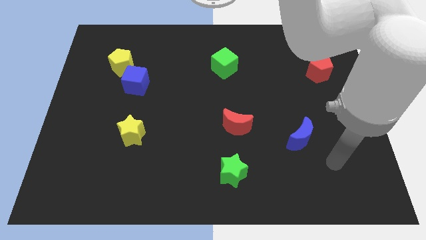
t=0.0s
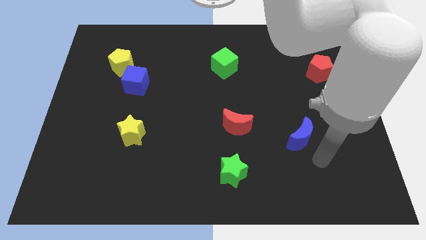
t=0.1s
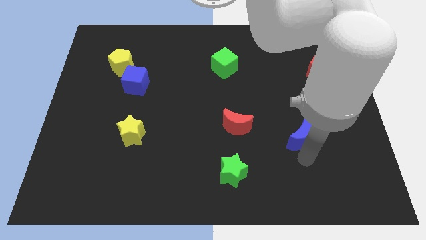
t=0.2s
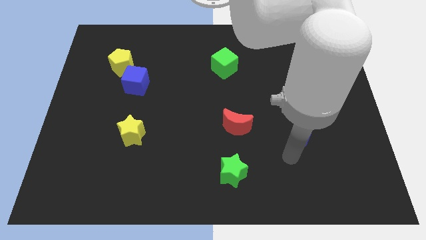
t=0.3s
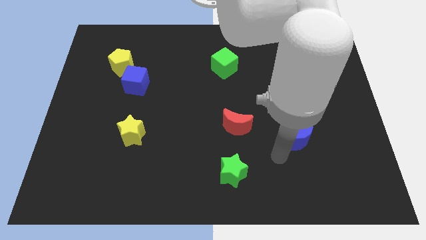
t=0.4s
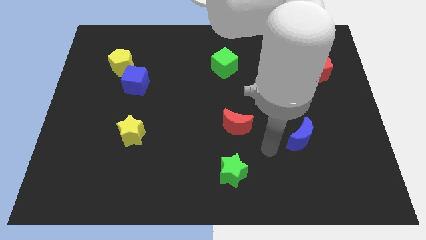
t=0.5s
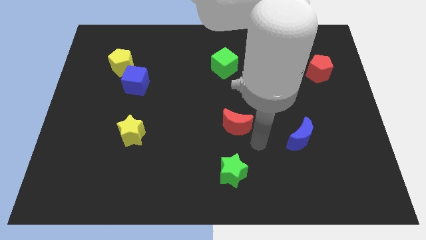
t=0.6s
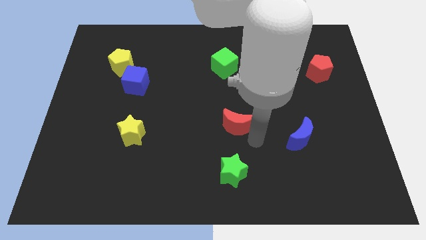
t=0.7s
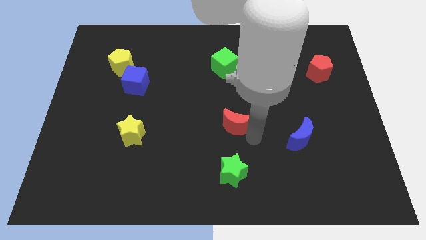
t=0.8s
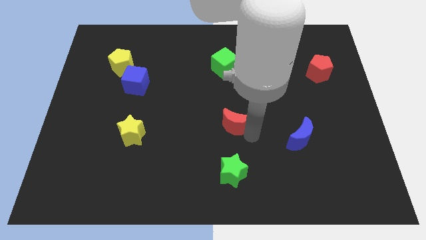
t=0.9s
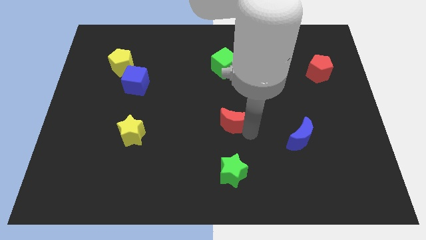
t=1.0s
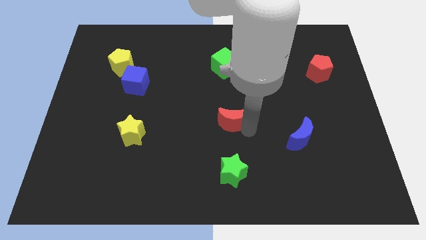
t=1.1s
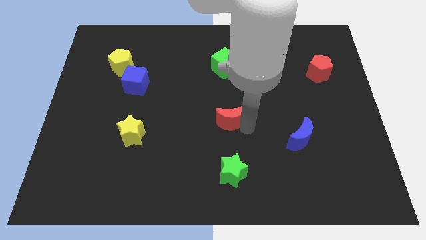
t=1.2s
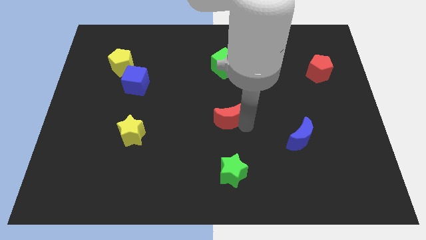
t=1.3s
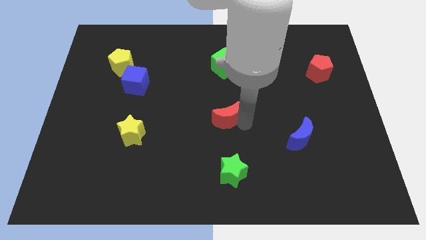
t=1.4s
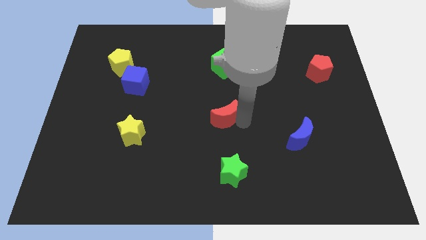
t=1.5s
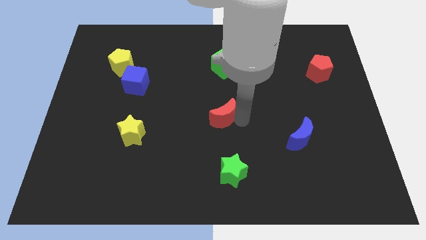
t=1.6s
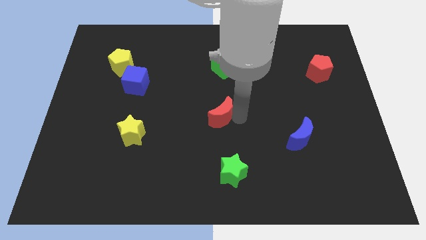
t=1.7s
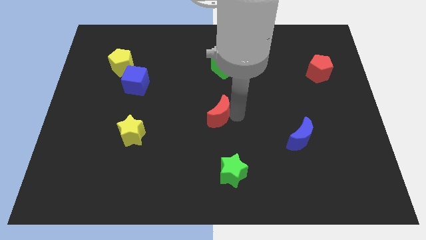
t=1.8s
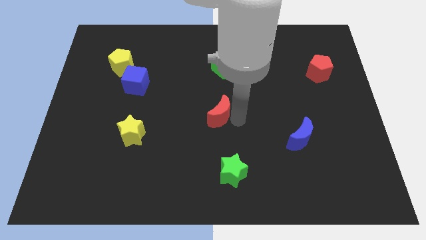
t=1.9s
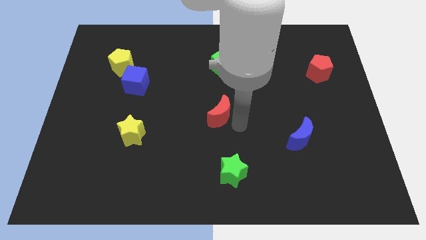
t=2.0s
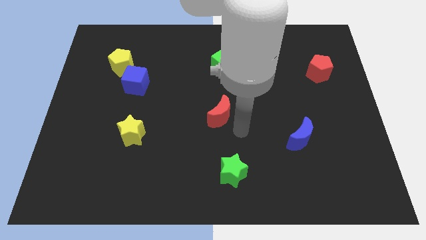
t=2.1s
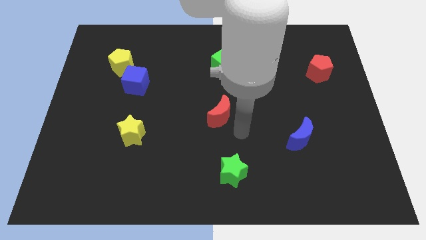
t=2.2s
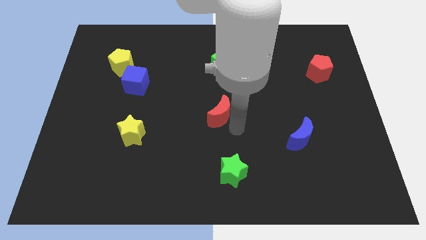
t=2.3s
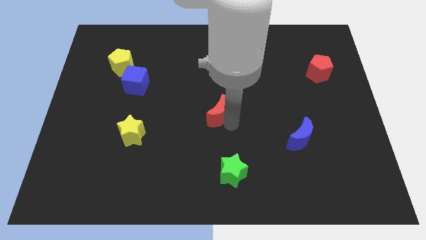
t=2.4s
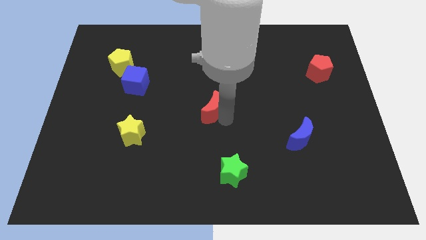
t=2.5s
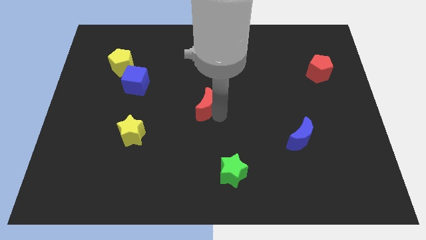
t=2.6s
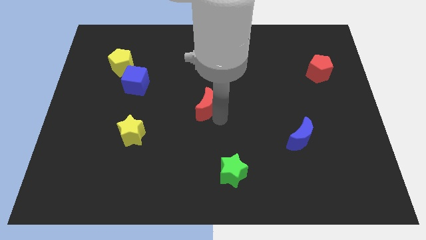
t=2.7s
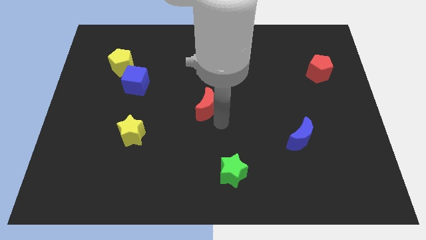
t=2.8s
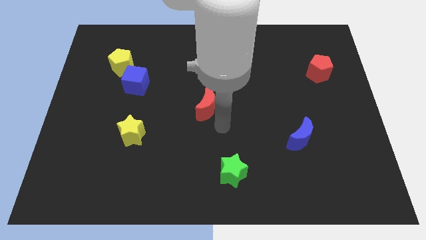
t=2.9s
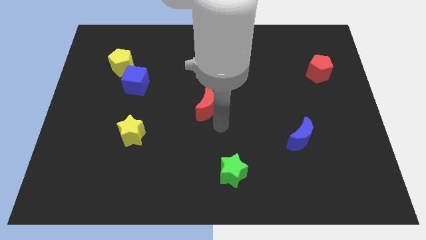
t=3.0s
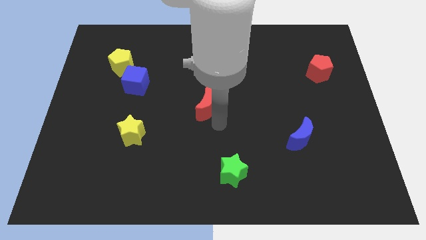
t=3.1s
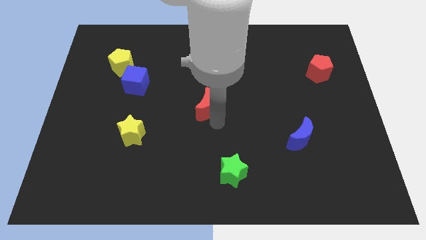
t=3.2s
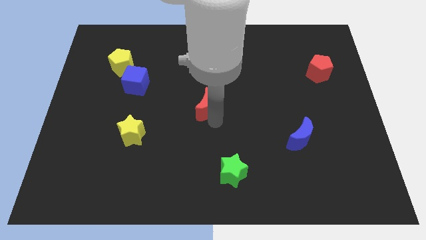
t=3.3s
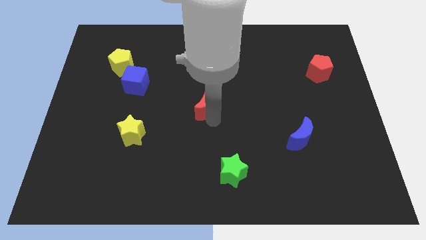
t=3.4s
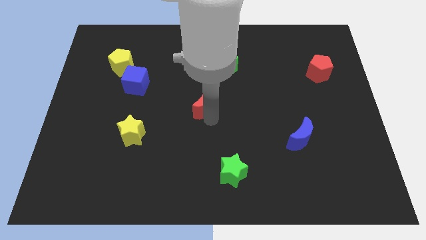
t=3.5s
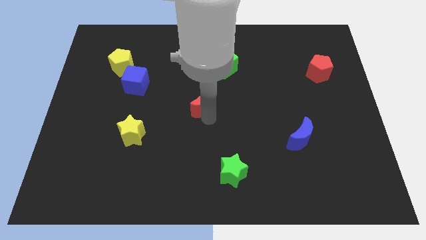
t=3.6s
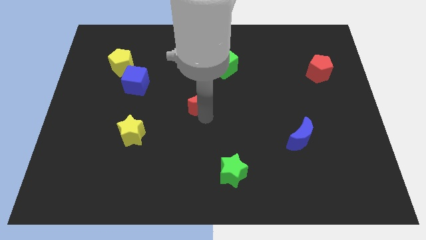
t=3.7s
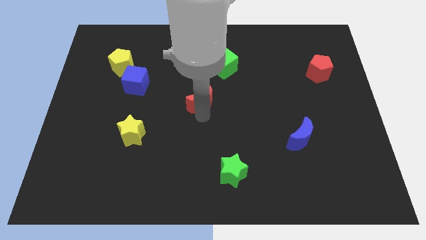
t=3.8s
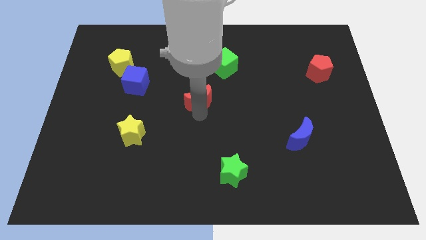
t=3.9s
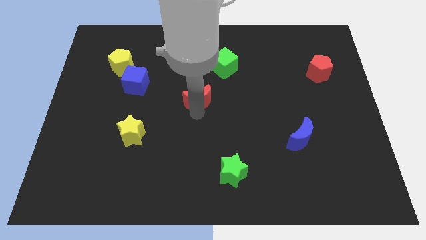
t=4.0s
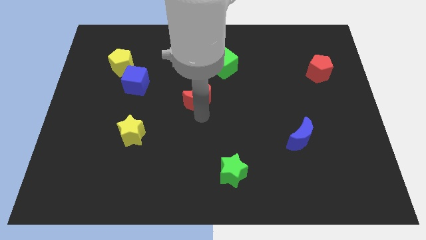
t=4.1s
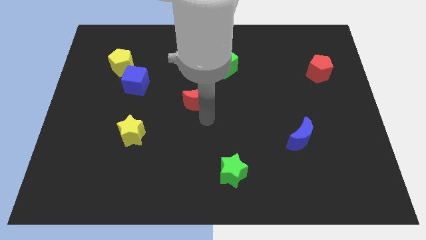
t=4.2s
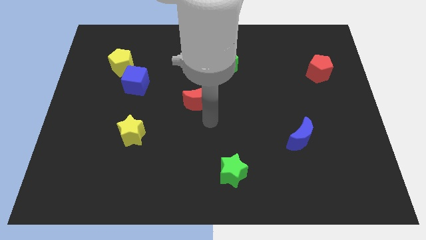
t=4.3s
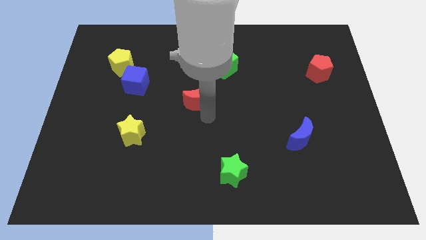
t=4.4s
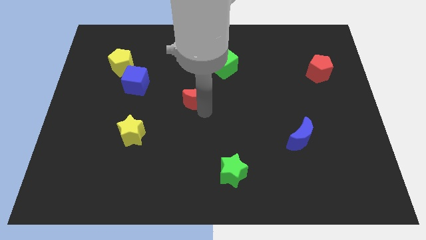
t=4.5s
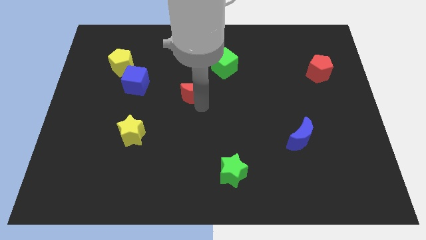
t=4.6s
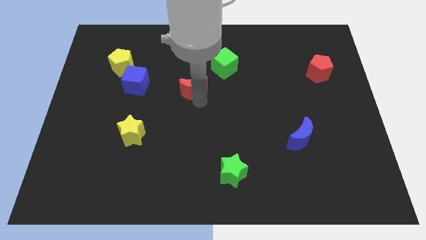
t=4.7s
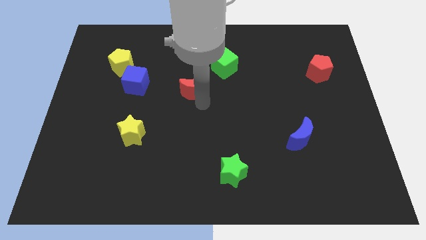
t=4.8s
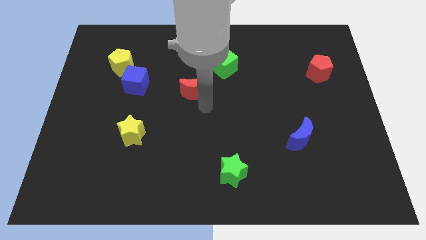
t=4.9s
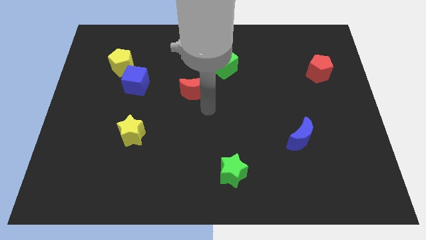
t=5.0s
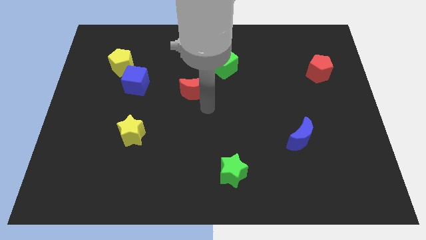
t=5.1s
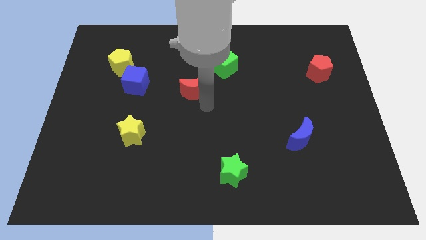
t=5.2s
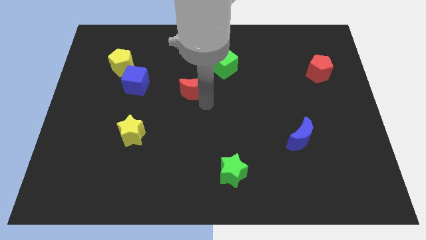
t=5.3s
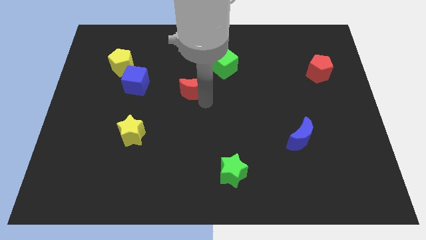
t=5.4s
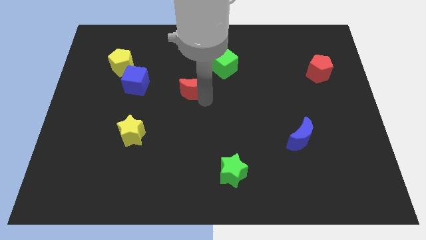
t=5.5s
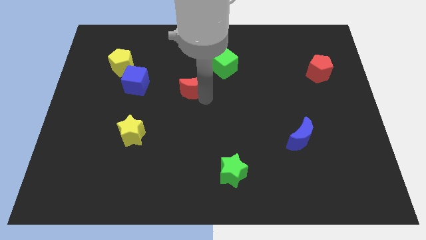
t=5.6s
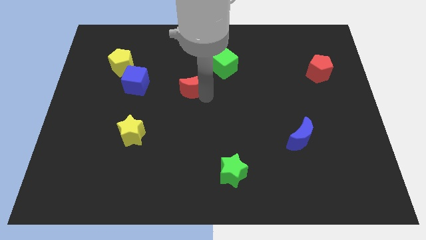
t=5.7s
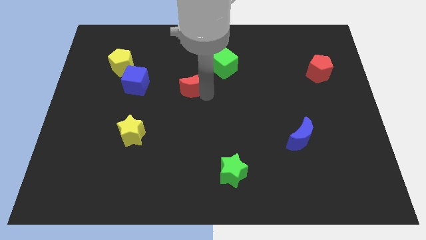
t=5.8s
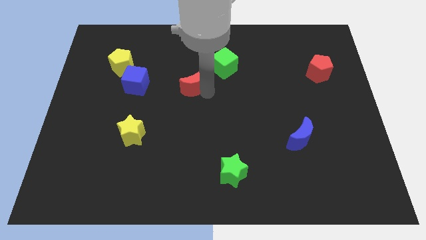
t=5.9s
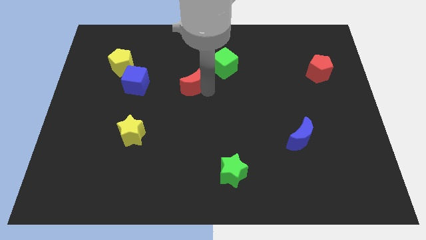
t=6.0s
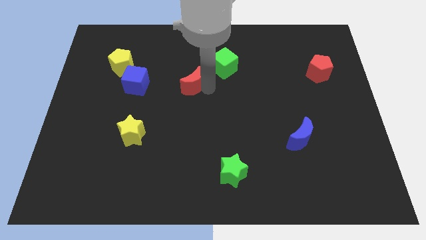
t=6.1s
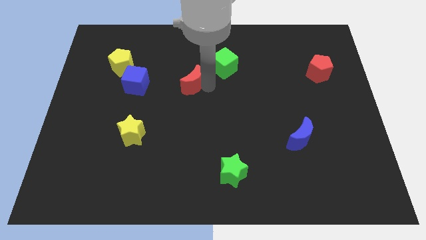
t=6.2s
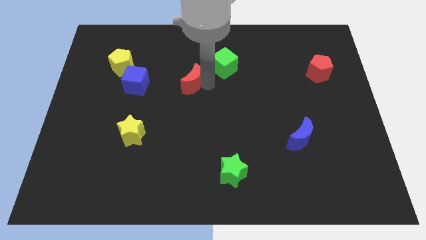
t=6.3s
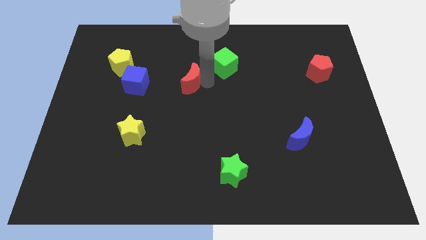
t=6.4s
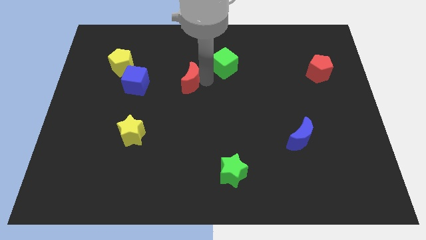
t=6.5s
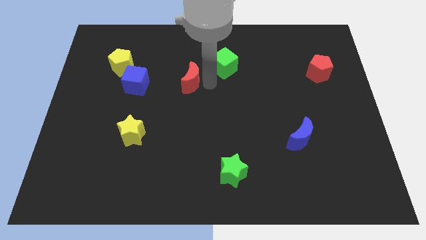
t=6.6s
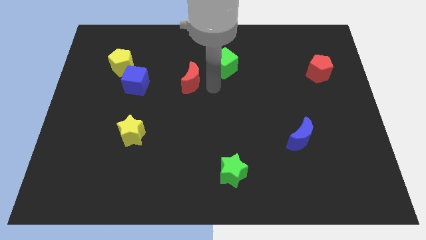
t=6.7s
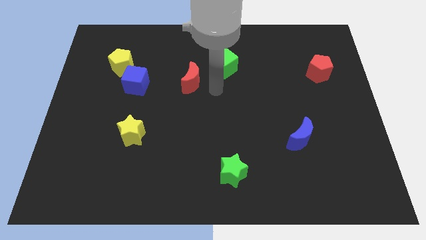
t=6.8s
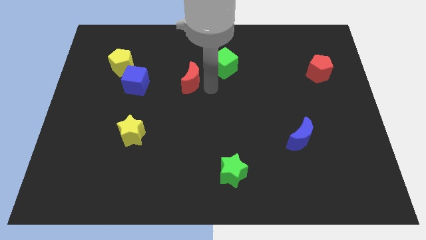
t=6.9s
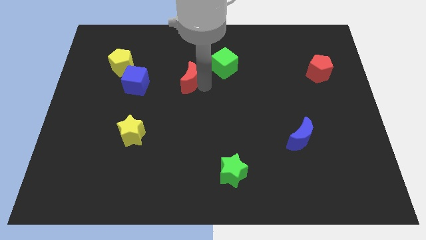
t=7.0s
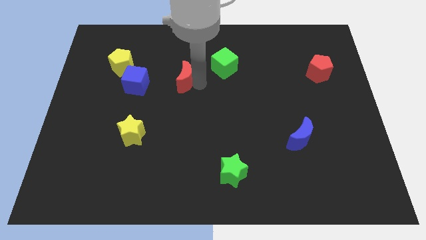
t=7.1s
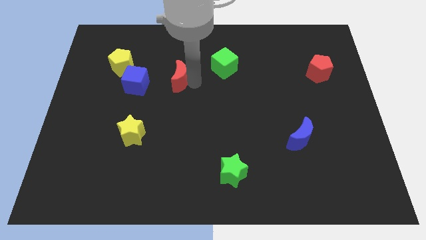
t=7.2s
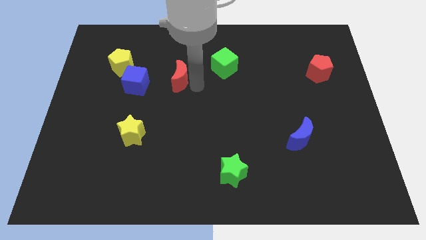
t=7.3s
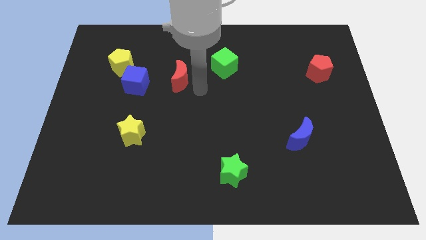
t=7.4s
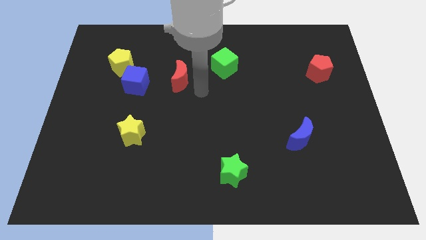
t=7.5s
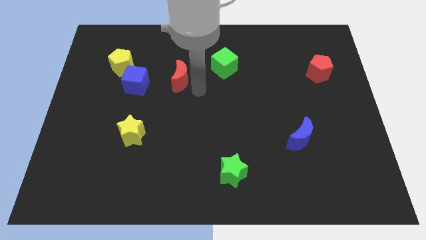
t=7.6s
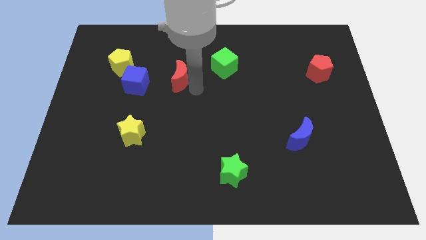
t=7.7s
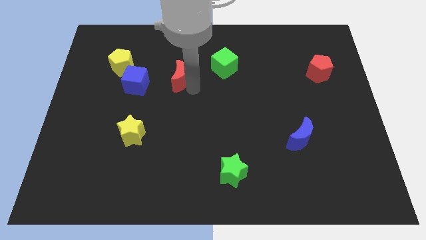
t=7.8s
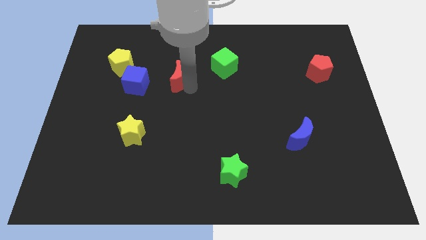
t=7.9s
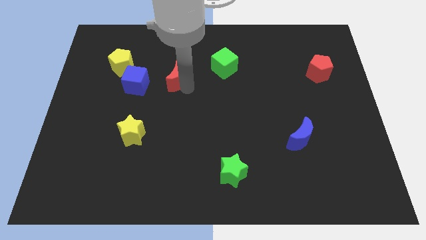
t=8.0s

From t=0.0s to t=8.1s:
push the red moon upwards and then left
